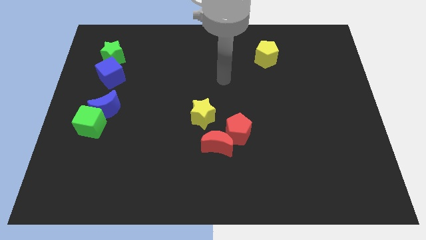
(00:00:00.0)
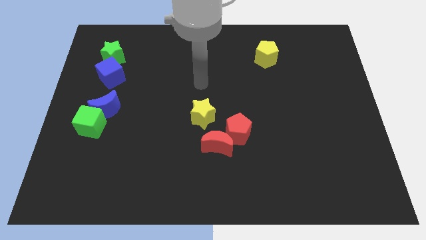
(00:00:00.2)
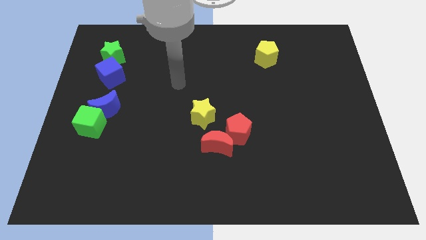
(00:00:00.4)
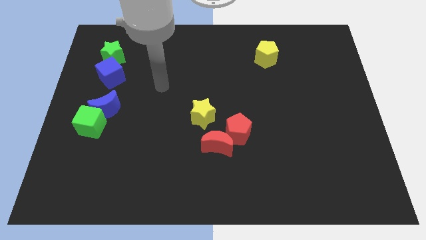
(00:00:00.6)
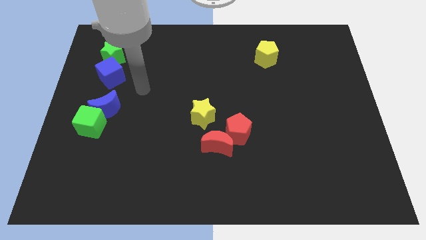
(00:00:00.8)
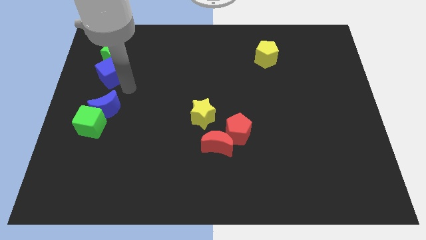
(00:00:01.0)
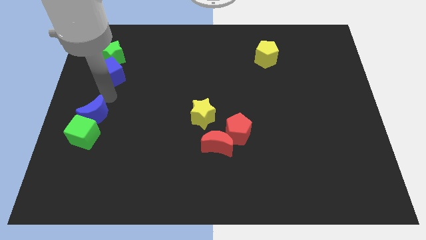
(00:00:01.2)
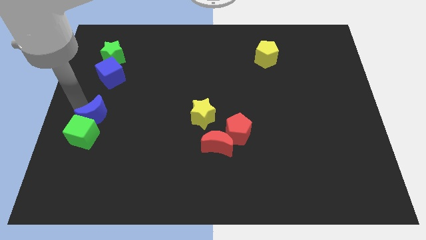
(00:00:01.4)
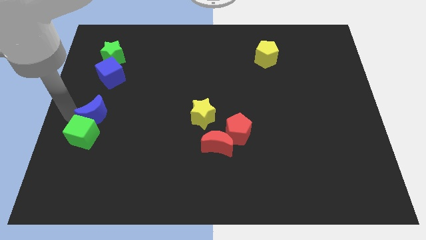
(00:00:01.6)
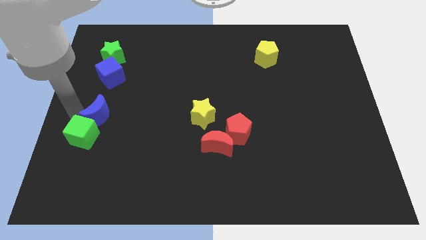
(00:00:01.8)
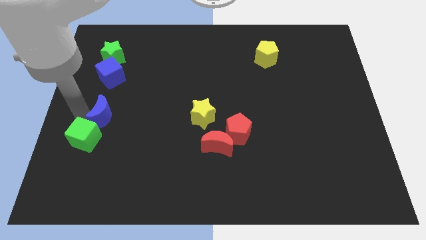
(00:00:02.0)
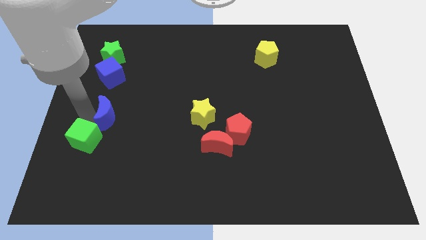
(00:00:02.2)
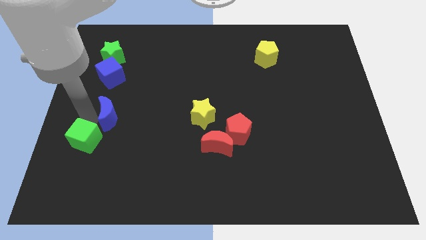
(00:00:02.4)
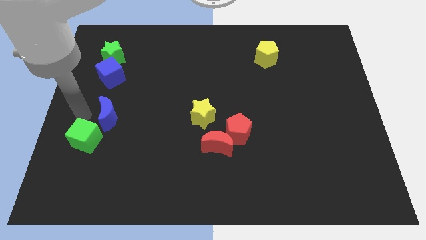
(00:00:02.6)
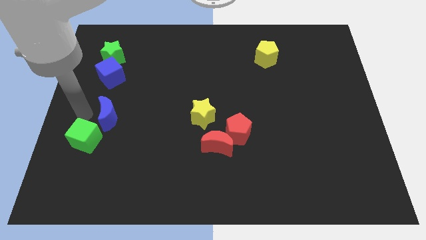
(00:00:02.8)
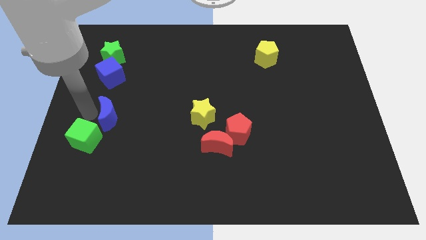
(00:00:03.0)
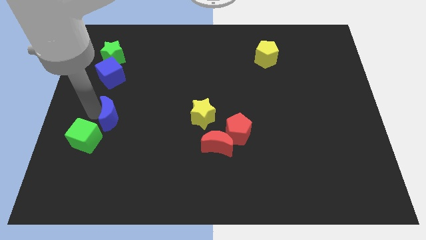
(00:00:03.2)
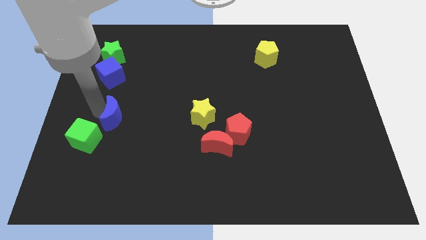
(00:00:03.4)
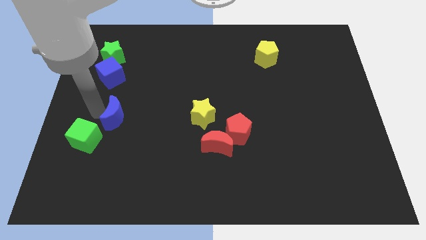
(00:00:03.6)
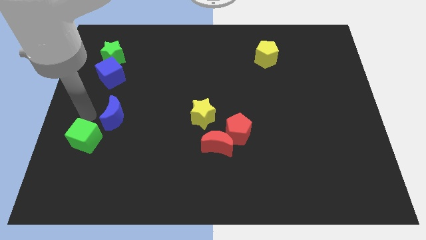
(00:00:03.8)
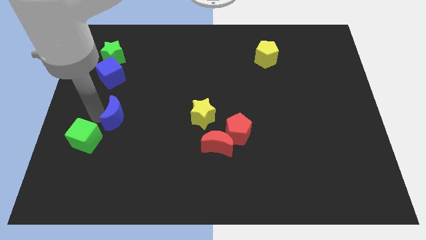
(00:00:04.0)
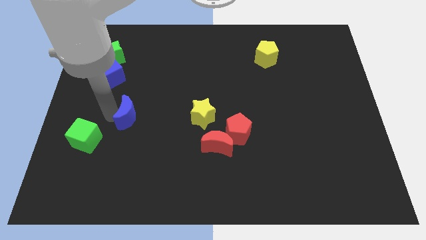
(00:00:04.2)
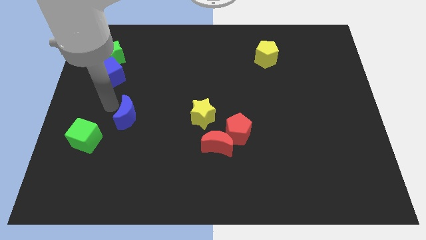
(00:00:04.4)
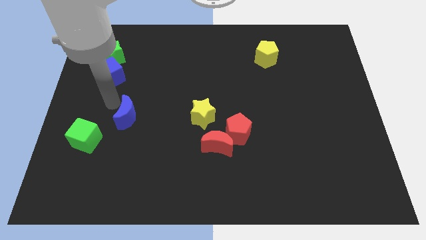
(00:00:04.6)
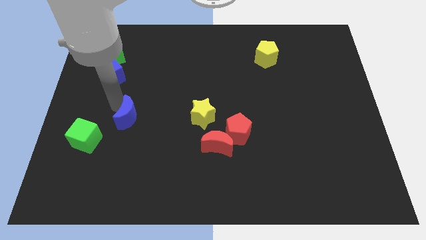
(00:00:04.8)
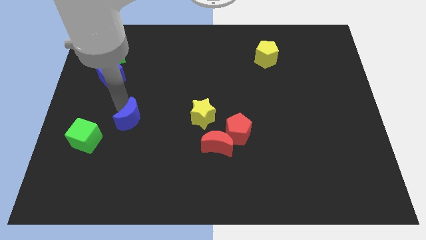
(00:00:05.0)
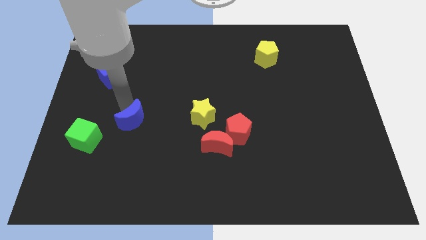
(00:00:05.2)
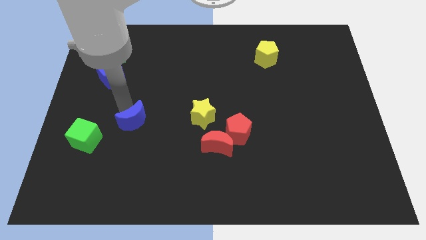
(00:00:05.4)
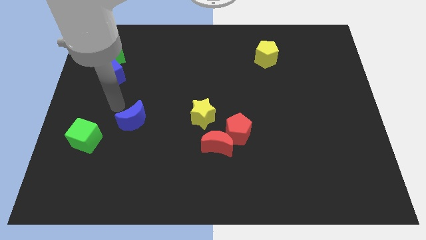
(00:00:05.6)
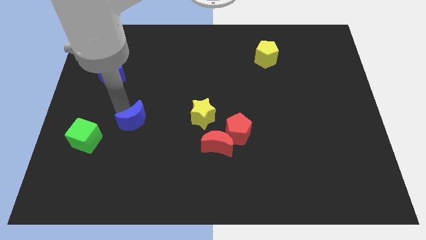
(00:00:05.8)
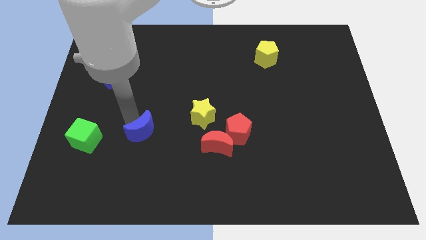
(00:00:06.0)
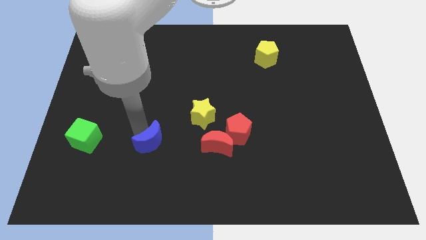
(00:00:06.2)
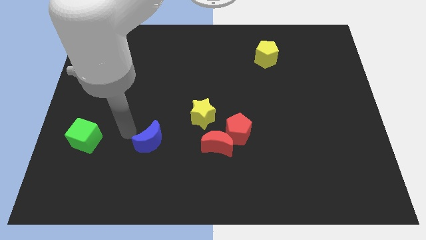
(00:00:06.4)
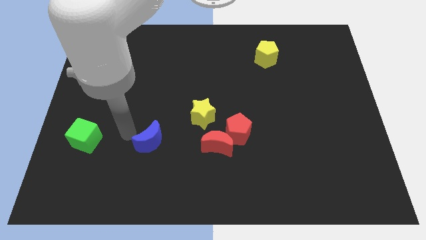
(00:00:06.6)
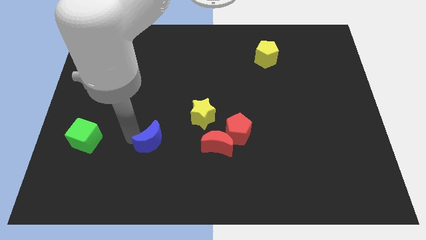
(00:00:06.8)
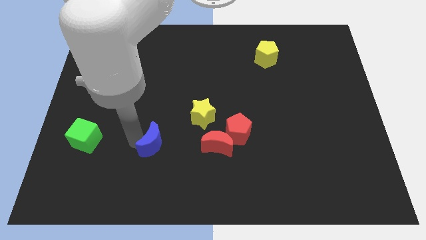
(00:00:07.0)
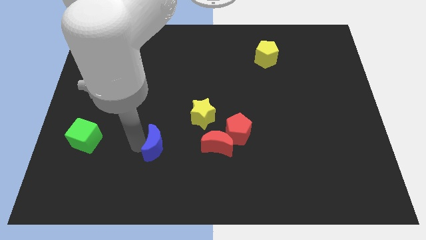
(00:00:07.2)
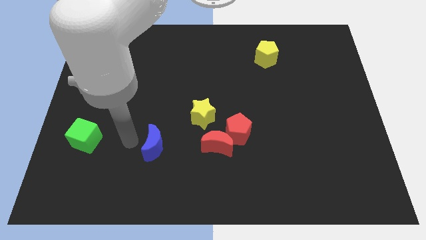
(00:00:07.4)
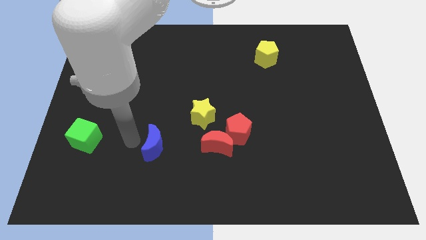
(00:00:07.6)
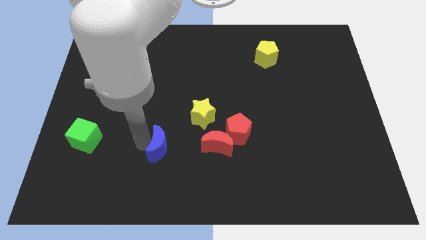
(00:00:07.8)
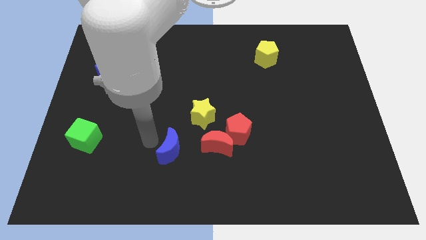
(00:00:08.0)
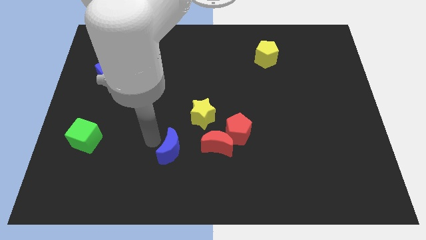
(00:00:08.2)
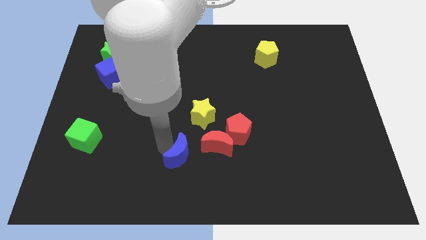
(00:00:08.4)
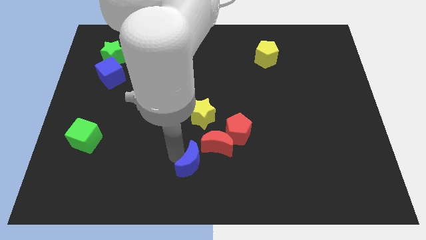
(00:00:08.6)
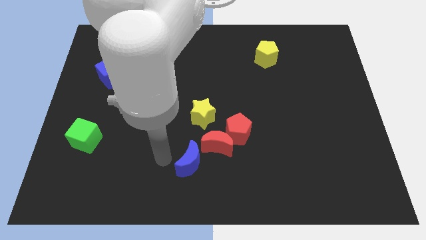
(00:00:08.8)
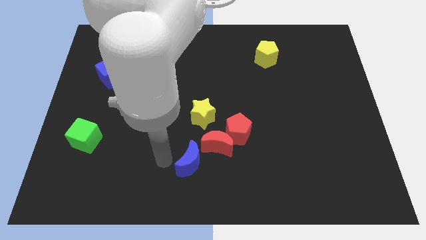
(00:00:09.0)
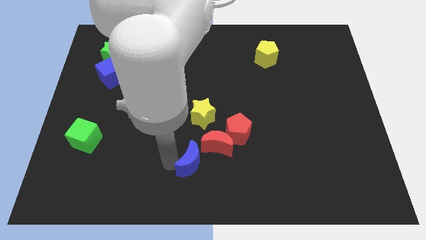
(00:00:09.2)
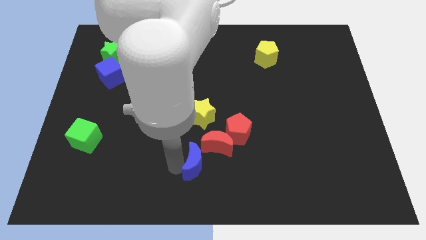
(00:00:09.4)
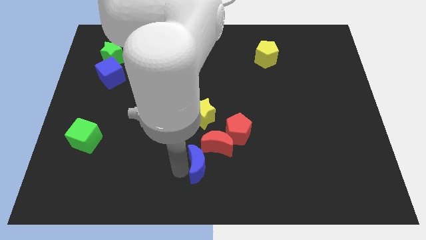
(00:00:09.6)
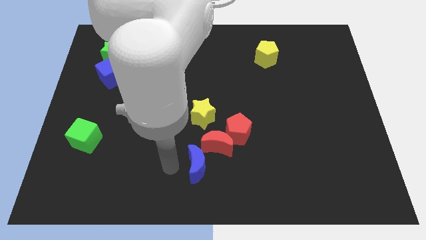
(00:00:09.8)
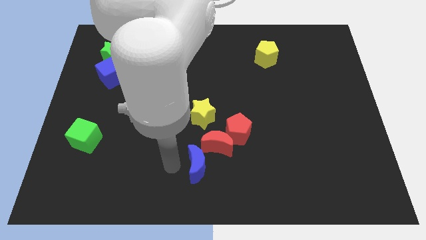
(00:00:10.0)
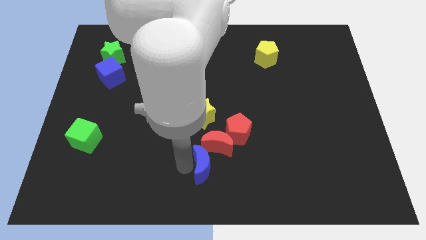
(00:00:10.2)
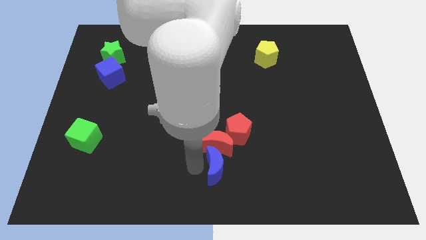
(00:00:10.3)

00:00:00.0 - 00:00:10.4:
slide the blue moon to the bottom right side of the red moon

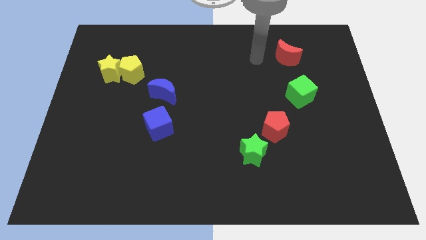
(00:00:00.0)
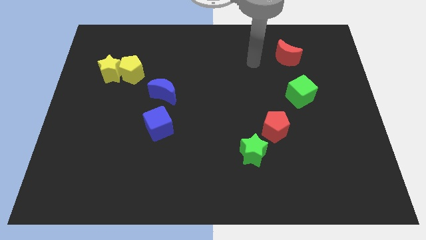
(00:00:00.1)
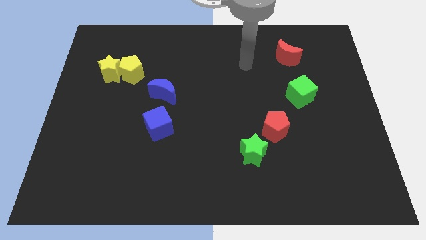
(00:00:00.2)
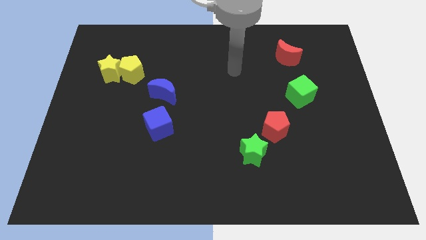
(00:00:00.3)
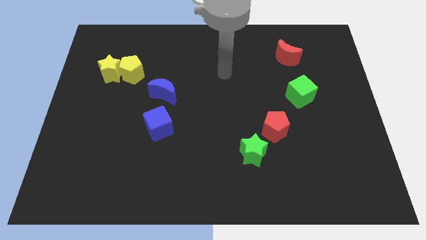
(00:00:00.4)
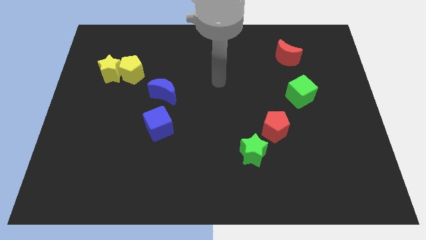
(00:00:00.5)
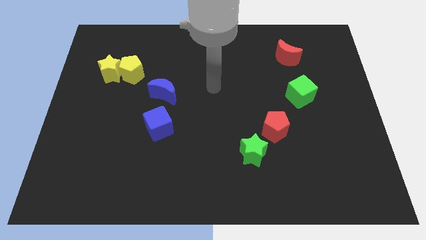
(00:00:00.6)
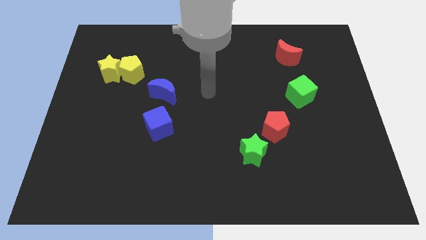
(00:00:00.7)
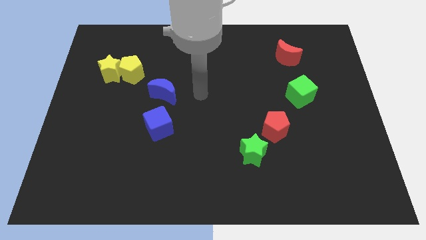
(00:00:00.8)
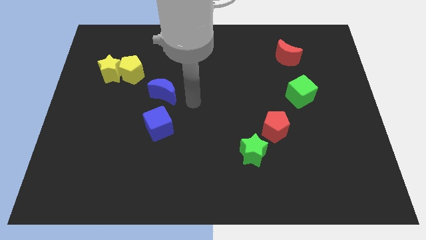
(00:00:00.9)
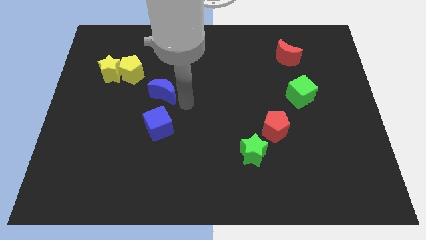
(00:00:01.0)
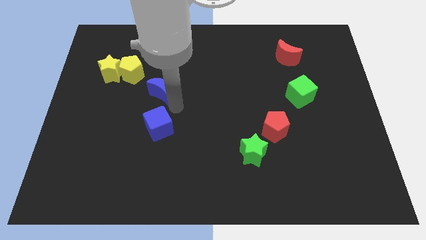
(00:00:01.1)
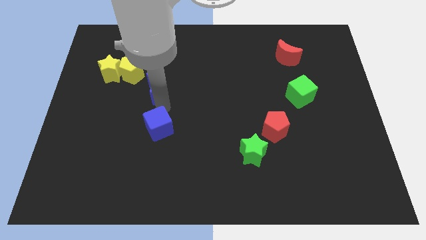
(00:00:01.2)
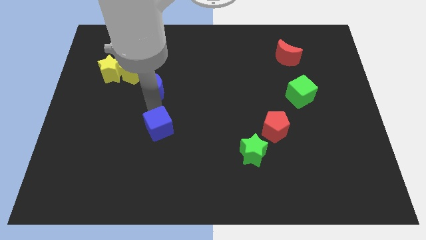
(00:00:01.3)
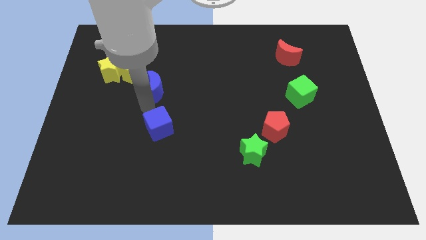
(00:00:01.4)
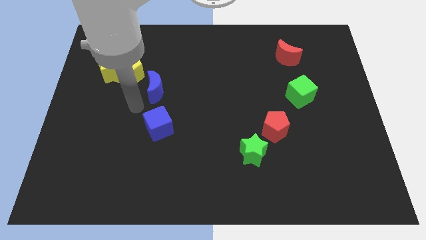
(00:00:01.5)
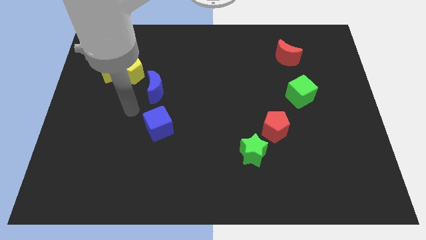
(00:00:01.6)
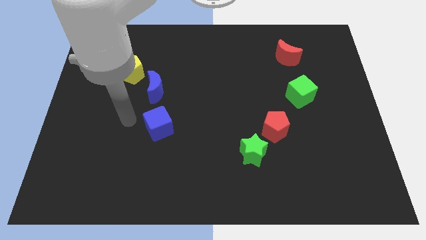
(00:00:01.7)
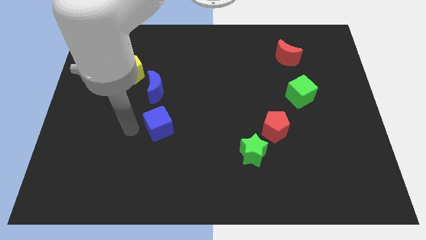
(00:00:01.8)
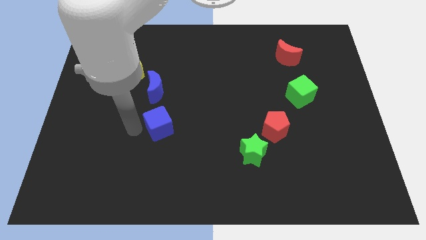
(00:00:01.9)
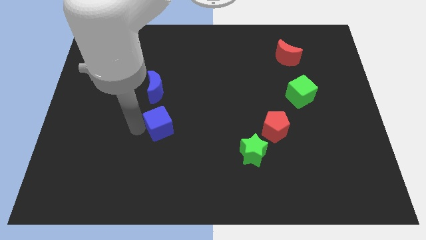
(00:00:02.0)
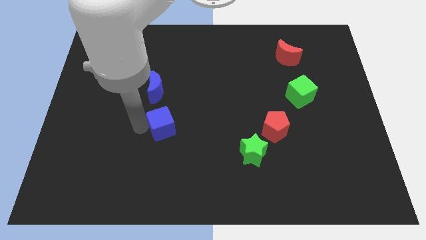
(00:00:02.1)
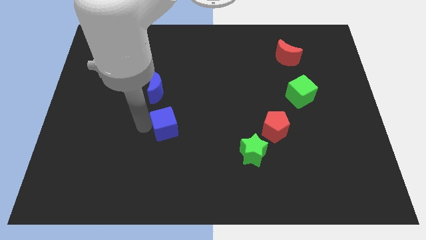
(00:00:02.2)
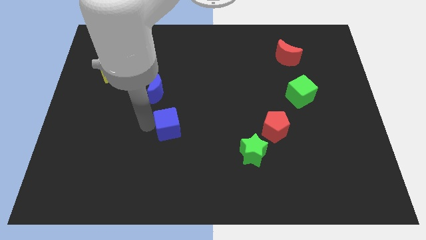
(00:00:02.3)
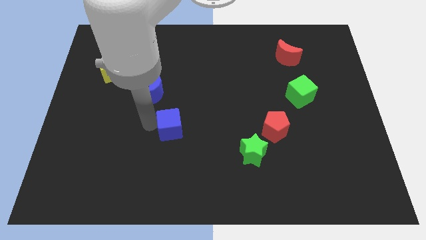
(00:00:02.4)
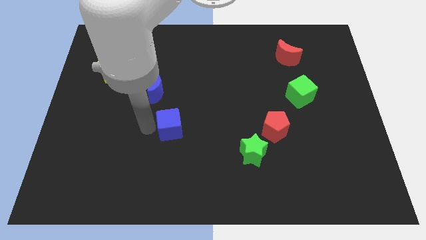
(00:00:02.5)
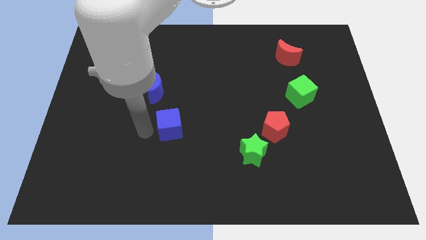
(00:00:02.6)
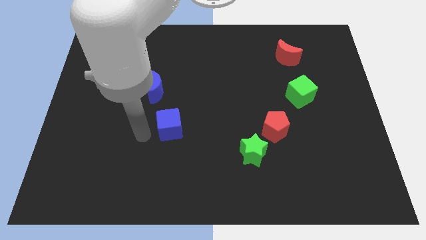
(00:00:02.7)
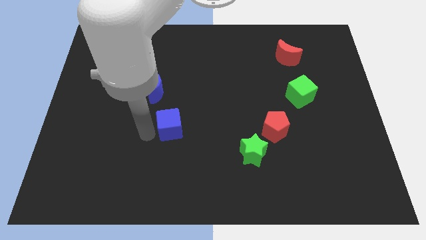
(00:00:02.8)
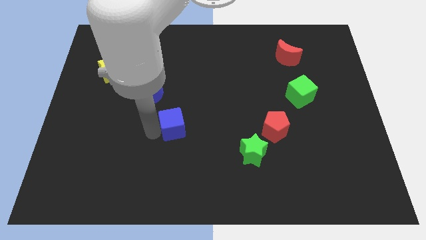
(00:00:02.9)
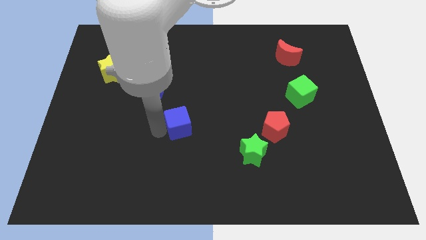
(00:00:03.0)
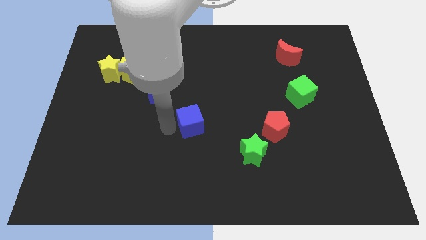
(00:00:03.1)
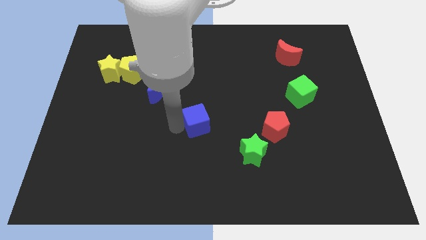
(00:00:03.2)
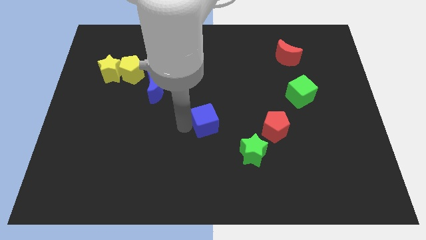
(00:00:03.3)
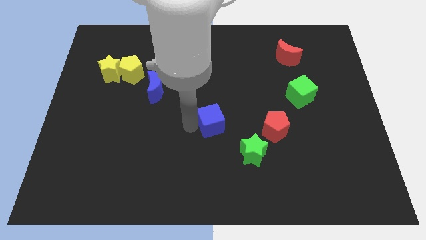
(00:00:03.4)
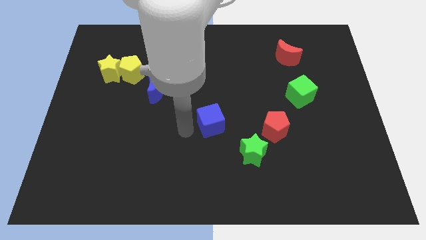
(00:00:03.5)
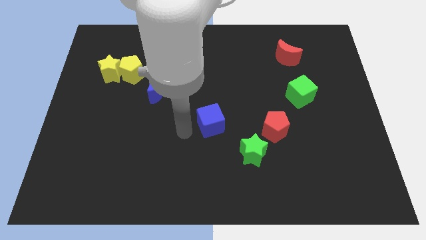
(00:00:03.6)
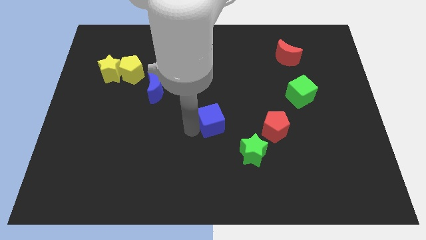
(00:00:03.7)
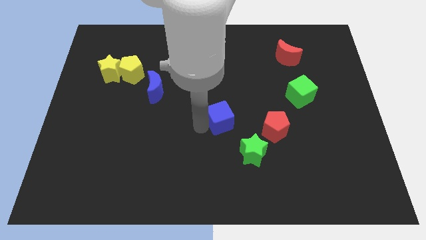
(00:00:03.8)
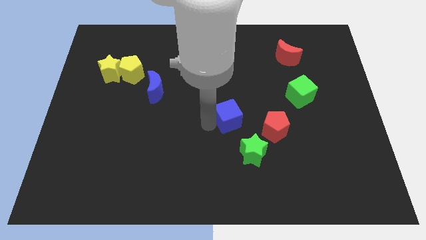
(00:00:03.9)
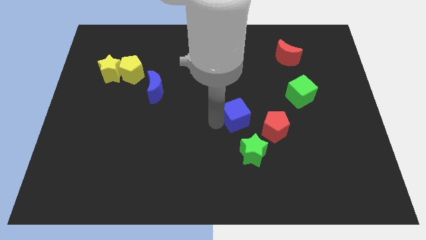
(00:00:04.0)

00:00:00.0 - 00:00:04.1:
push the blue cube to the top left of the red pentagon
